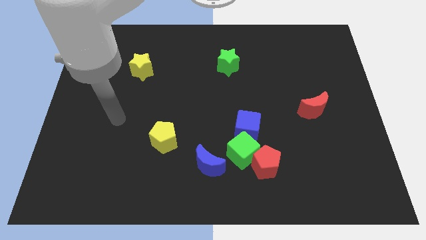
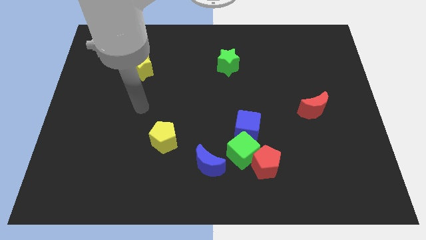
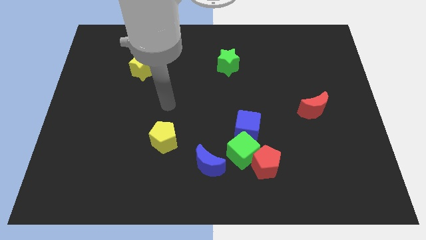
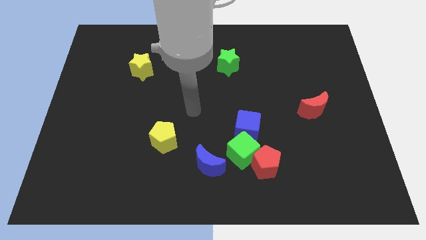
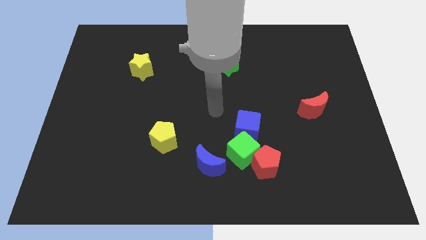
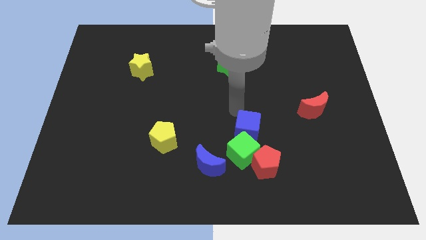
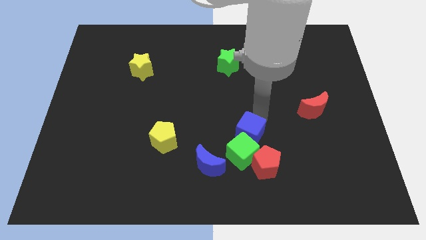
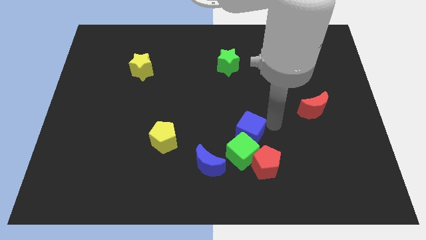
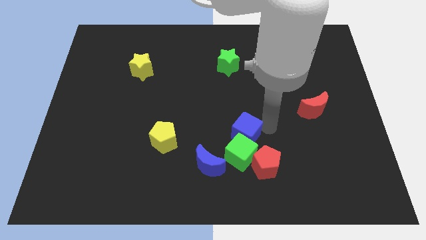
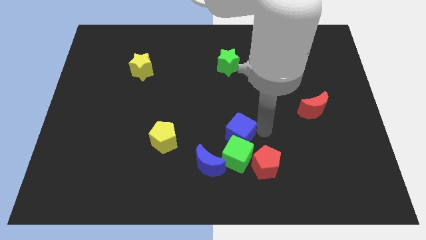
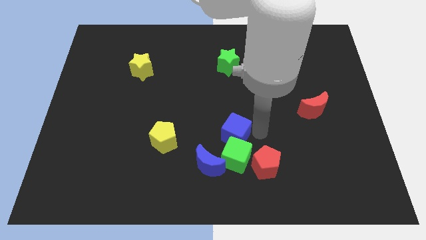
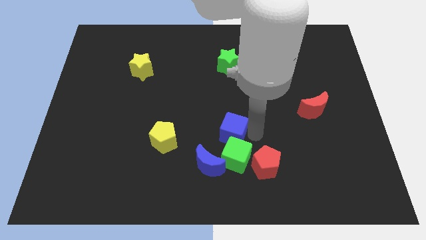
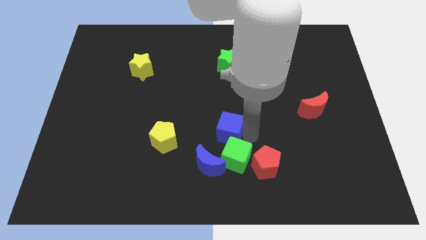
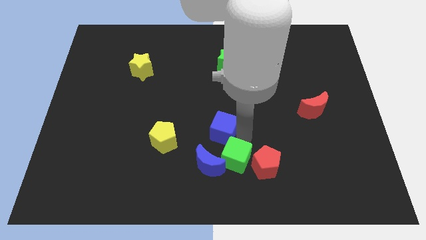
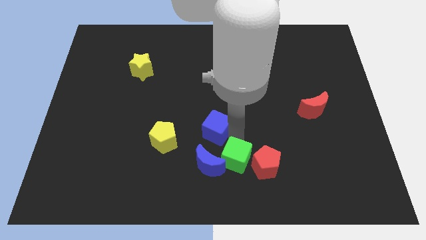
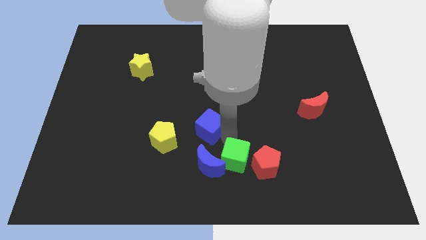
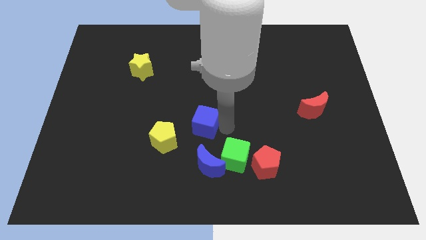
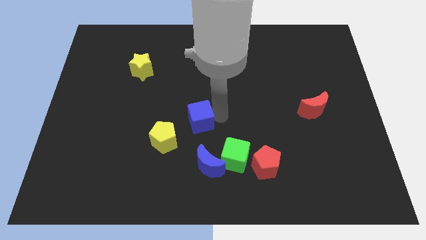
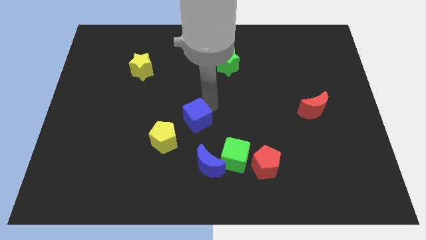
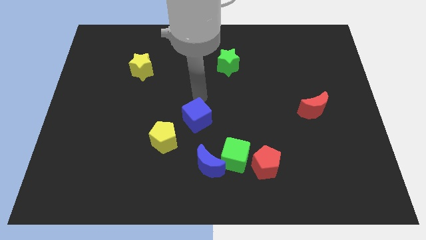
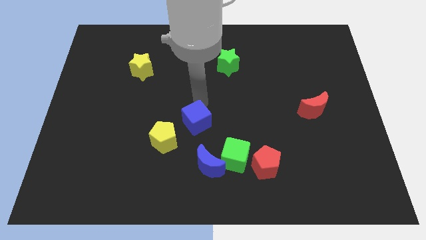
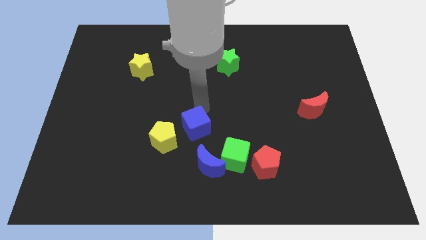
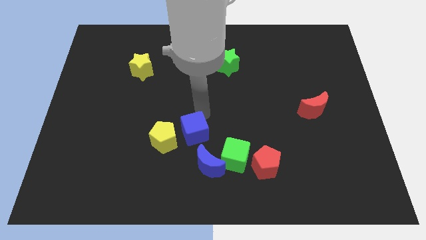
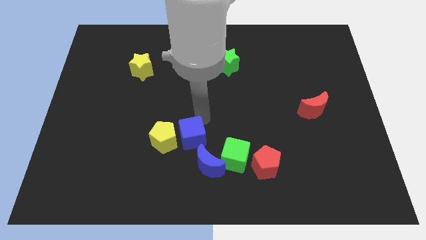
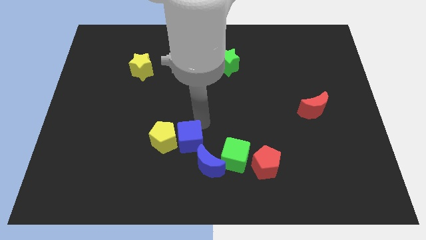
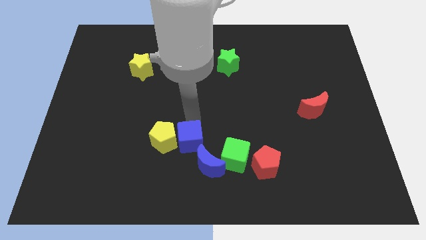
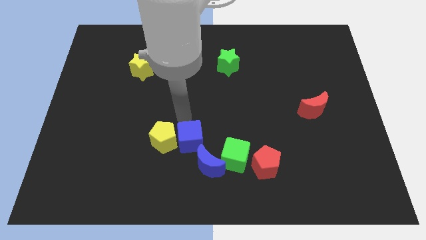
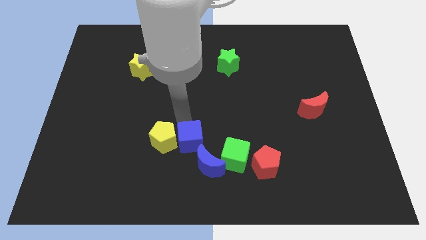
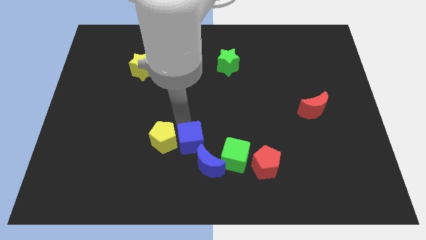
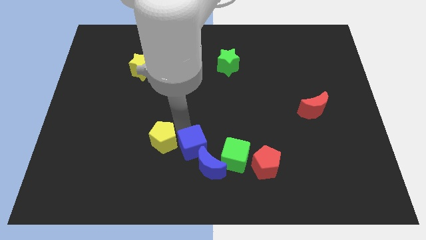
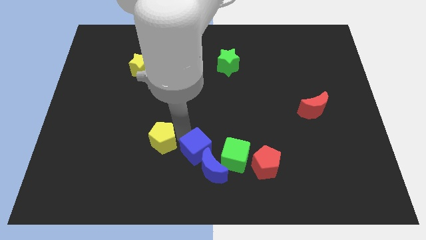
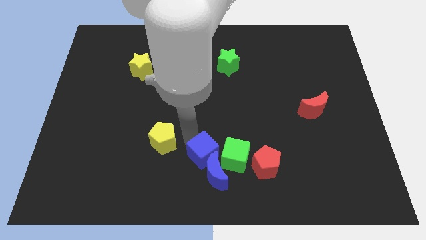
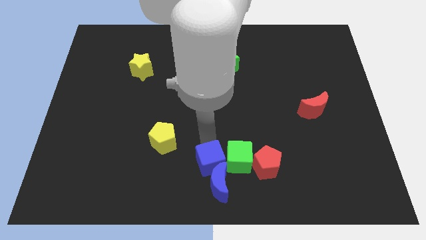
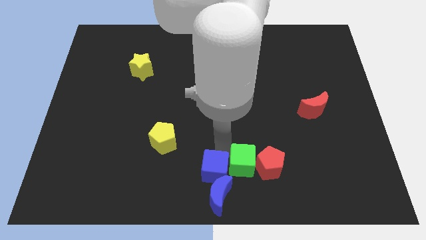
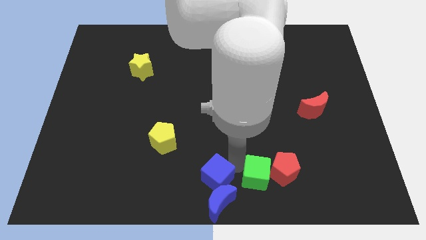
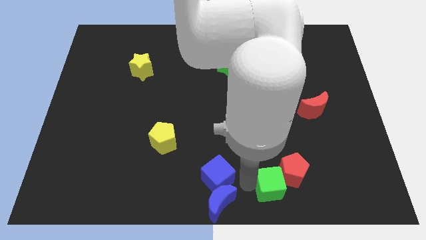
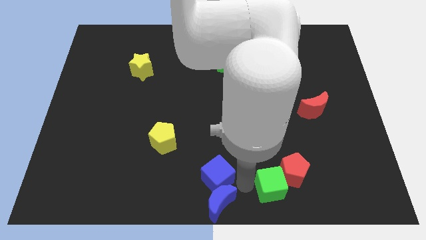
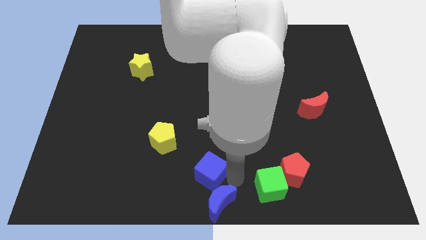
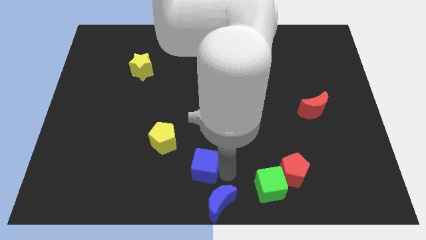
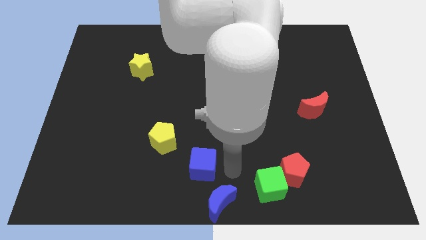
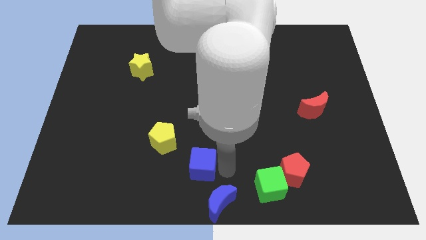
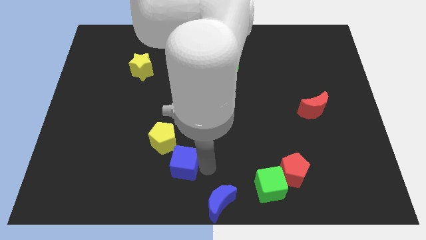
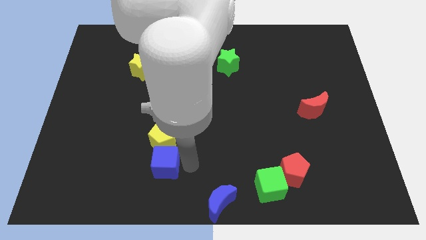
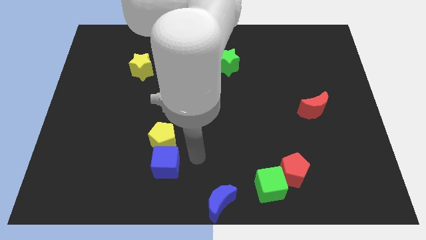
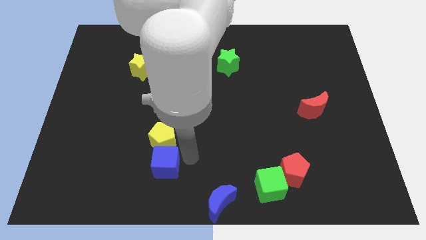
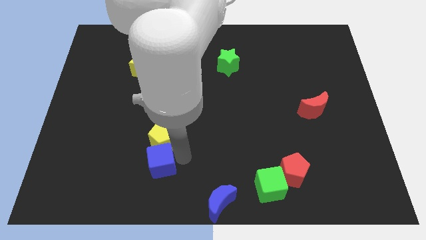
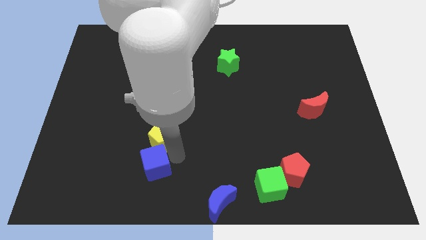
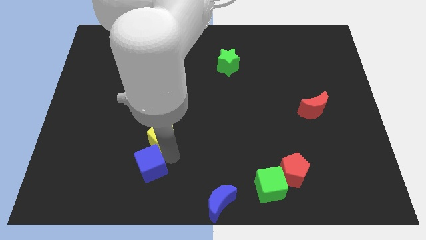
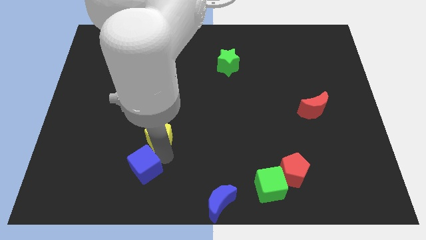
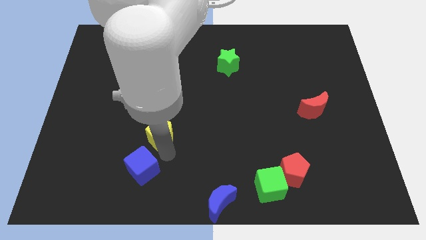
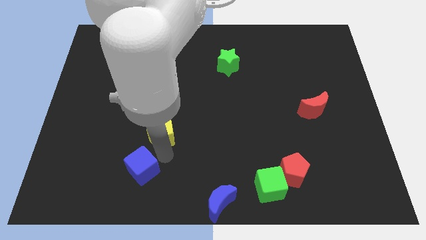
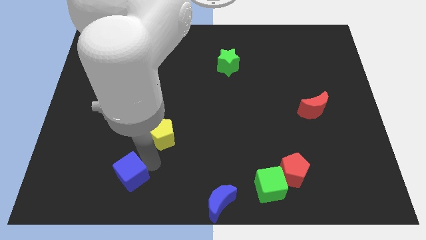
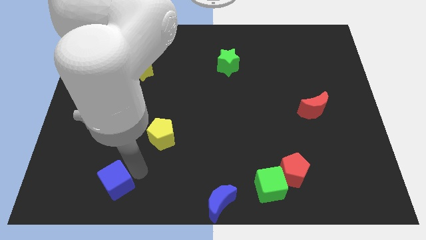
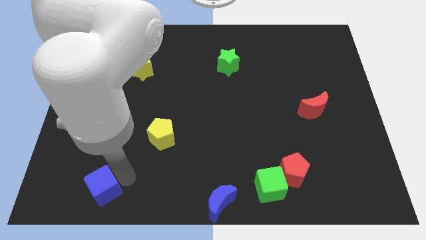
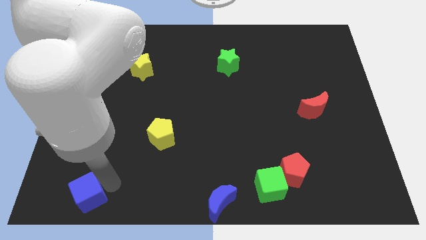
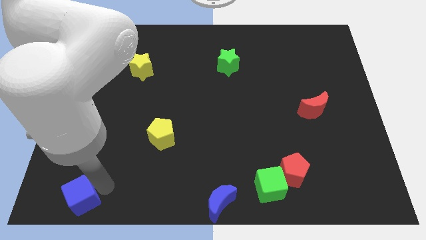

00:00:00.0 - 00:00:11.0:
push the blue cube to the bottom left of the board

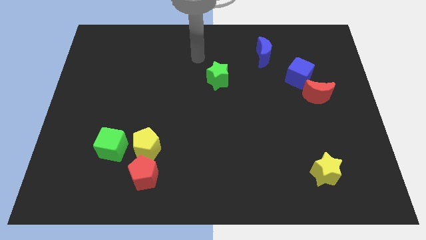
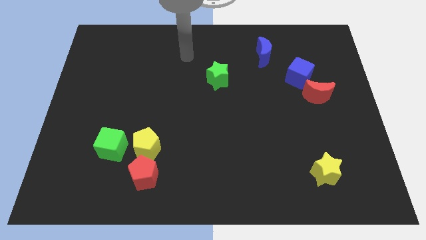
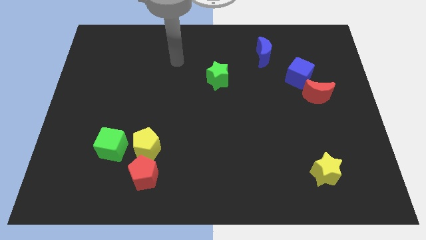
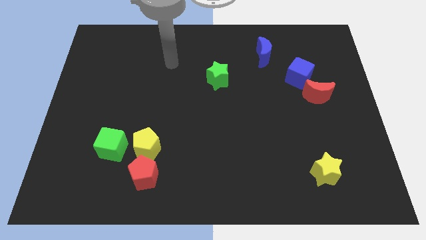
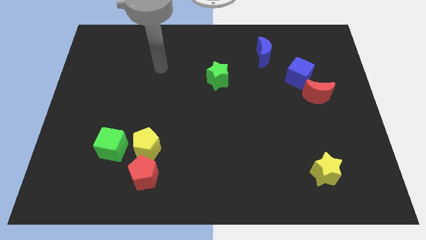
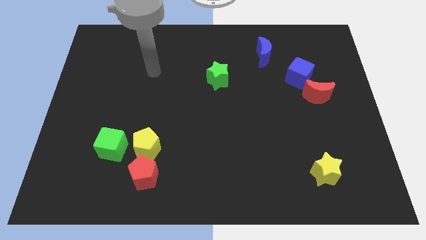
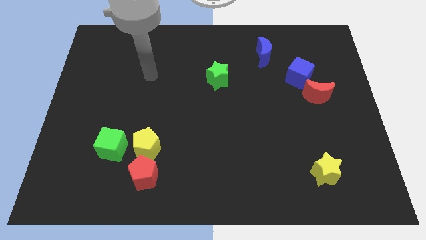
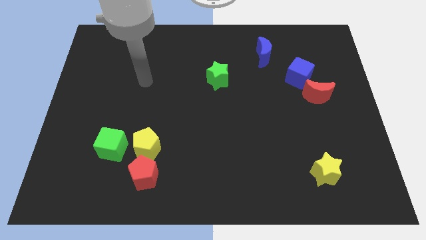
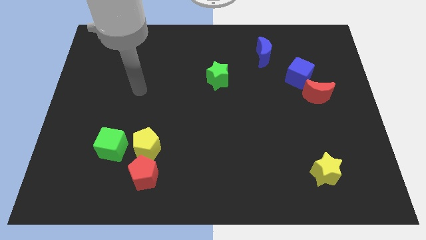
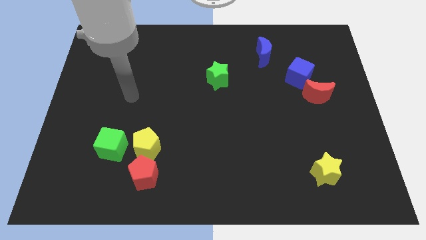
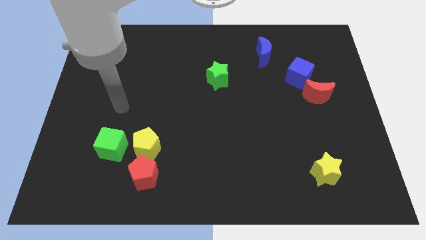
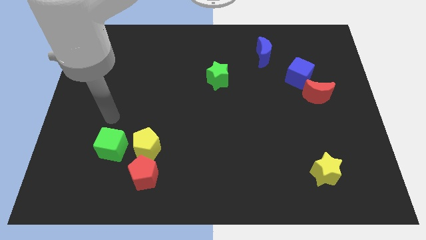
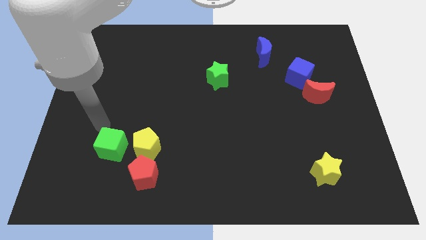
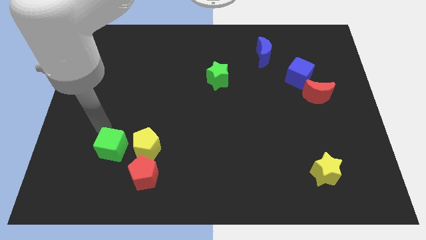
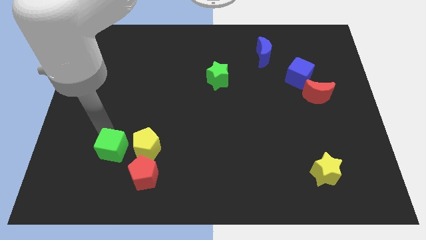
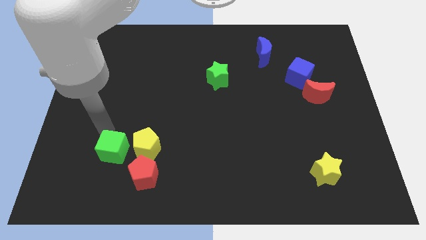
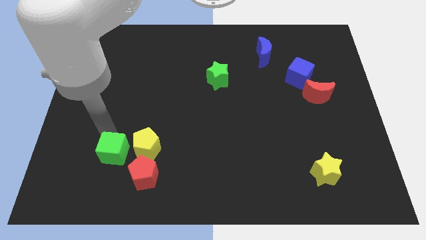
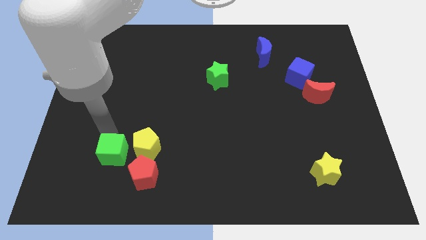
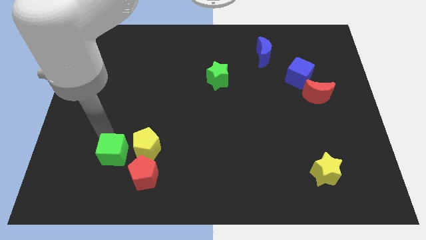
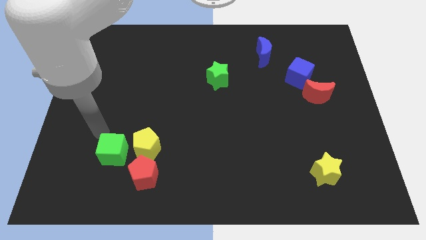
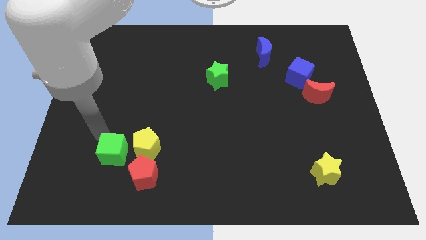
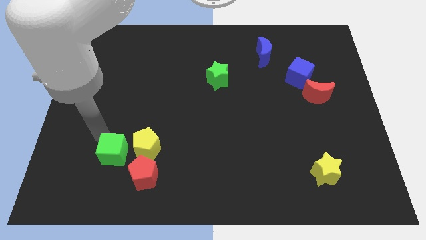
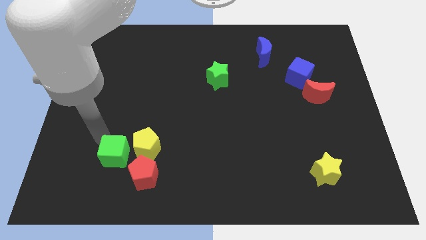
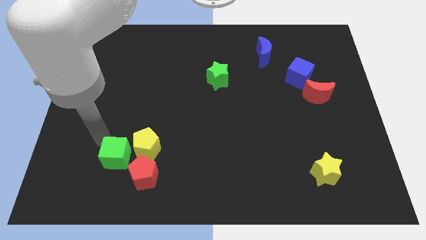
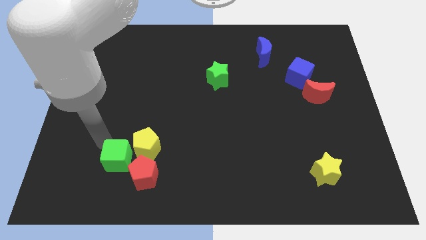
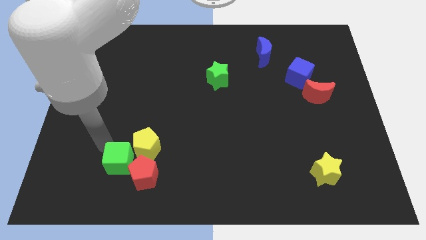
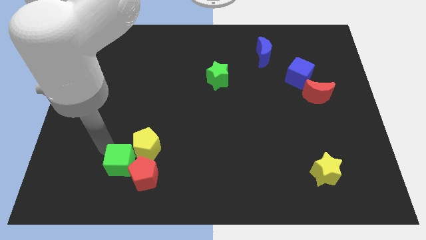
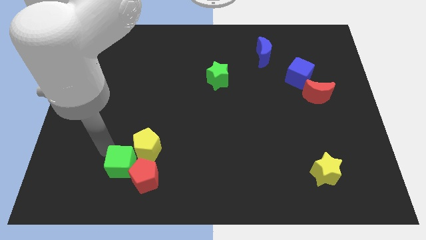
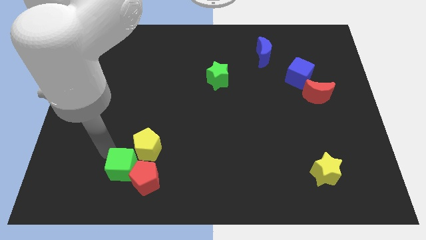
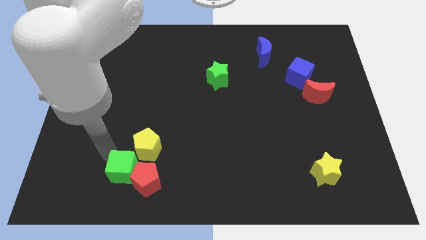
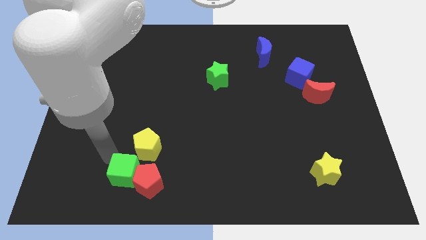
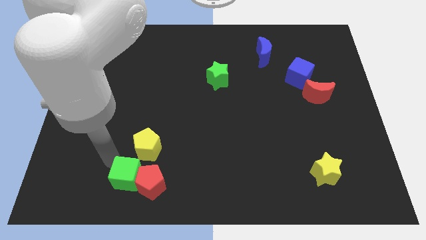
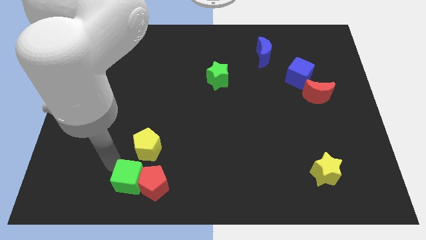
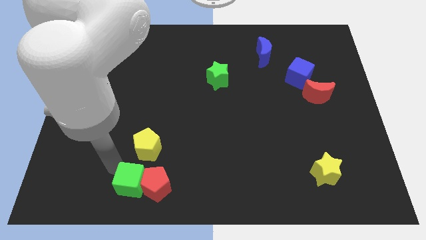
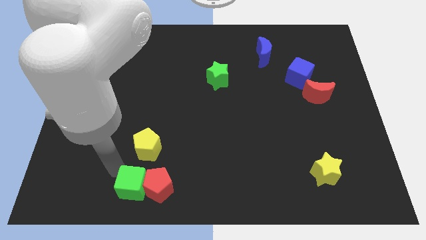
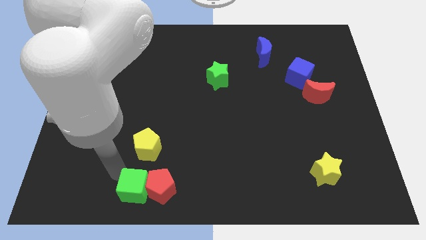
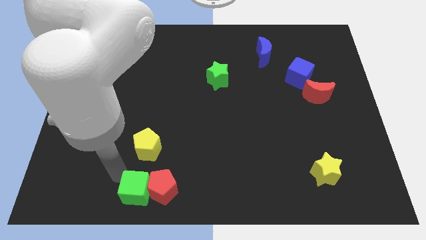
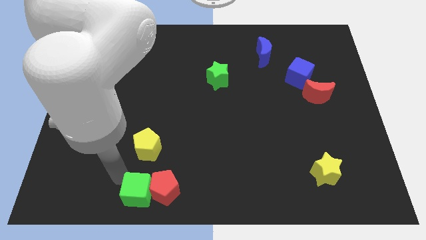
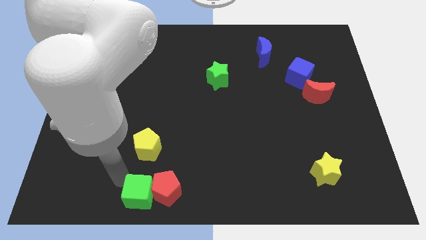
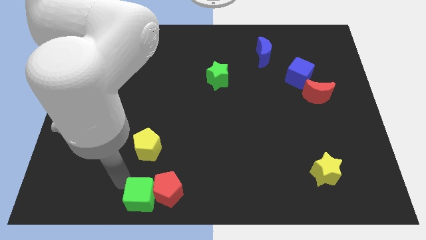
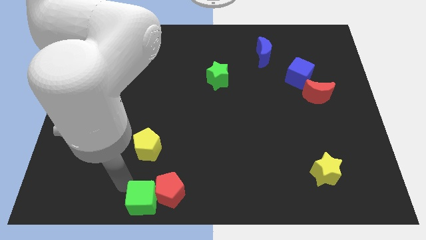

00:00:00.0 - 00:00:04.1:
move the green cube to the bottom
